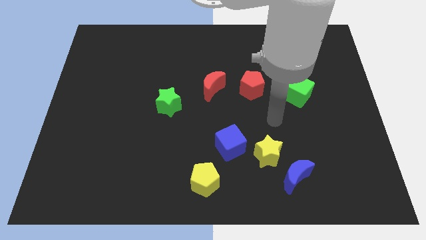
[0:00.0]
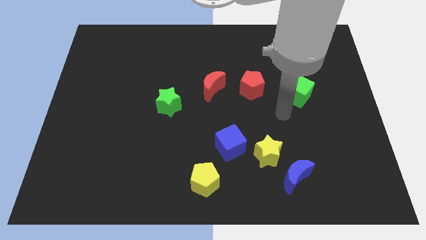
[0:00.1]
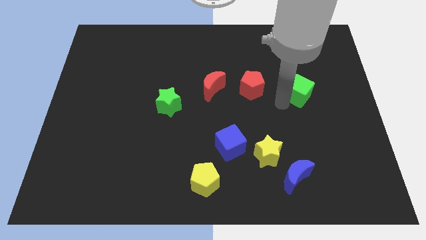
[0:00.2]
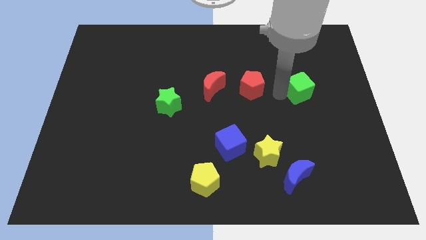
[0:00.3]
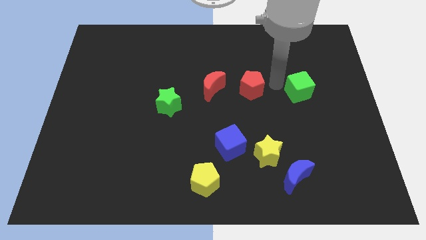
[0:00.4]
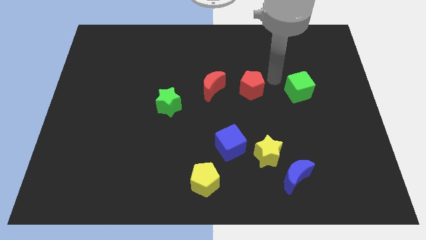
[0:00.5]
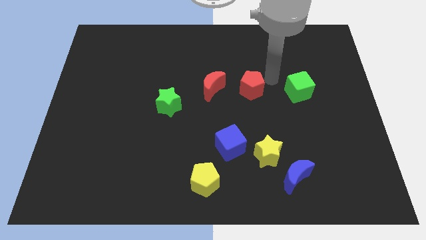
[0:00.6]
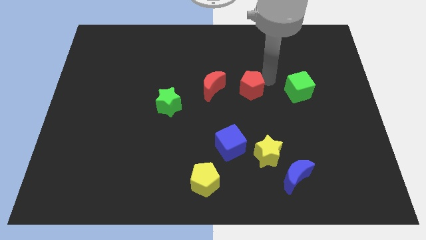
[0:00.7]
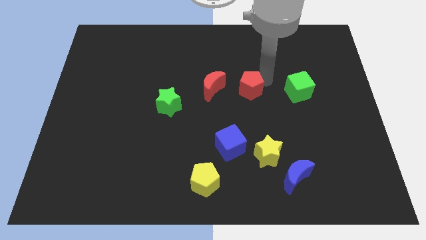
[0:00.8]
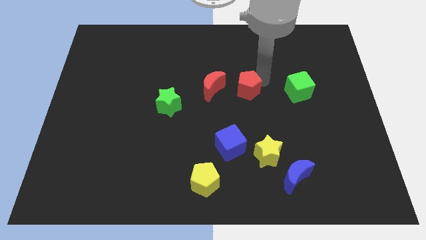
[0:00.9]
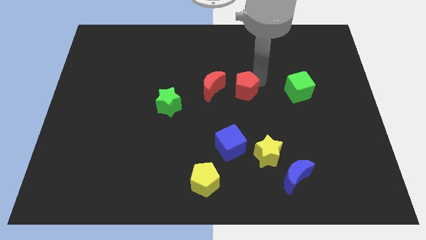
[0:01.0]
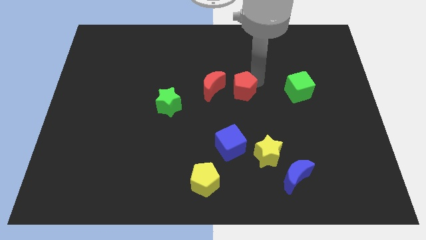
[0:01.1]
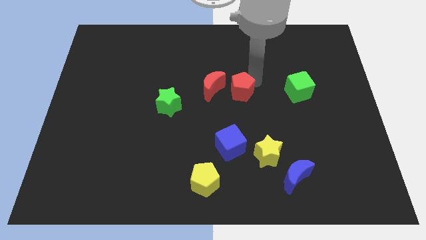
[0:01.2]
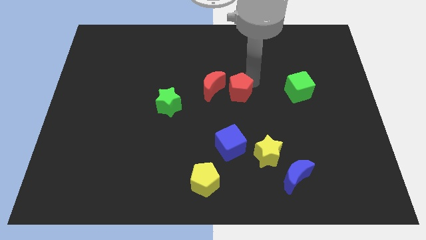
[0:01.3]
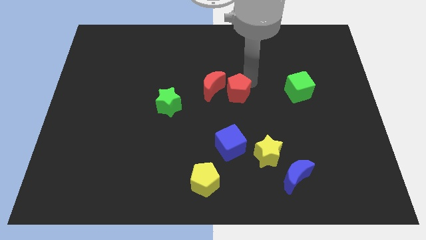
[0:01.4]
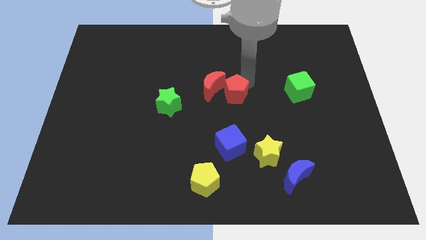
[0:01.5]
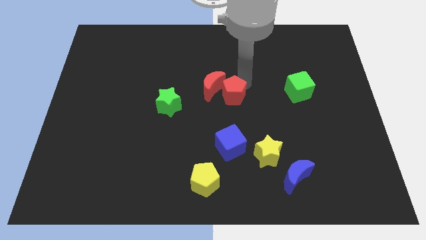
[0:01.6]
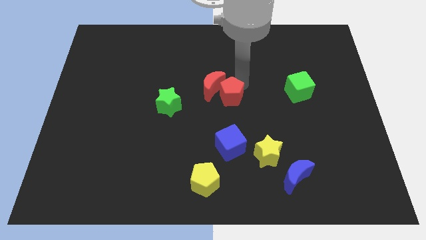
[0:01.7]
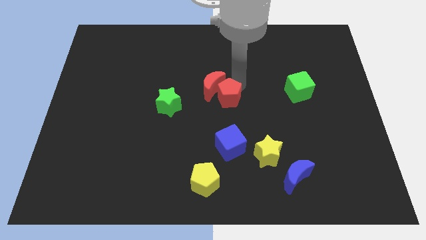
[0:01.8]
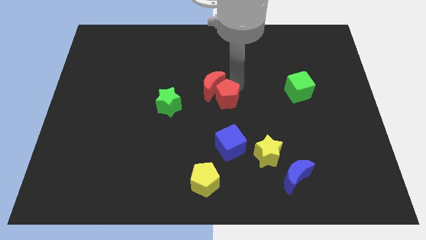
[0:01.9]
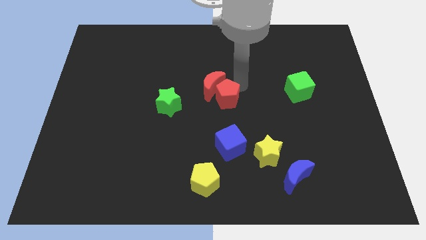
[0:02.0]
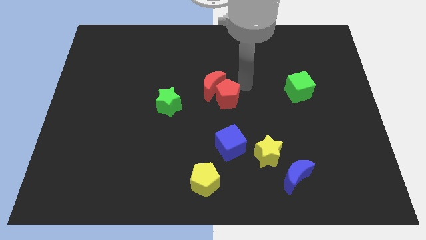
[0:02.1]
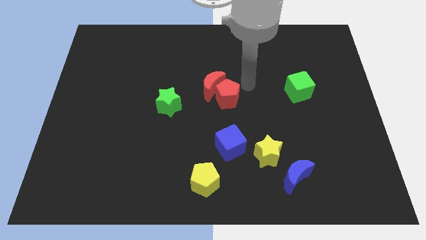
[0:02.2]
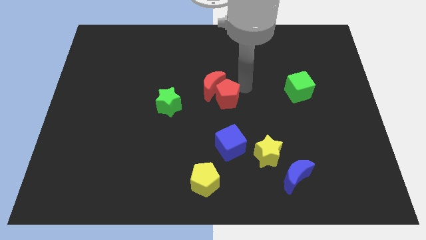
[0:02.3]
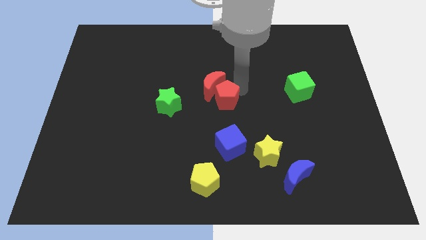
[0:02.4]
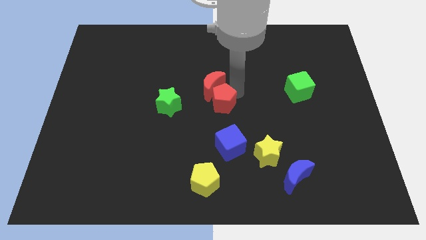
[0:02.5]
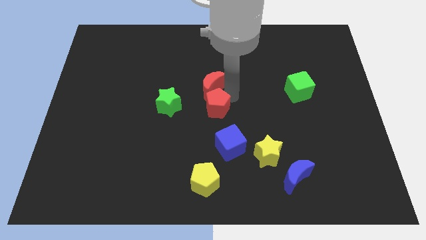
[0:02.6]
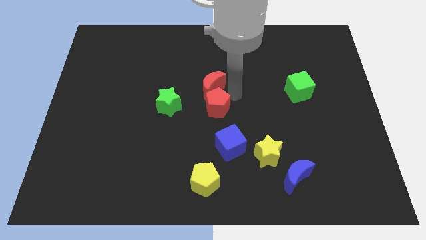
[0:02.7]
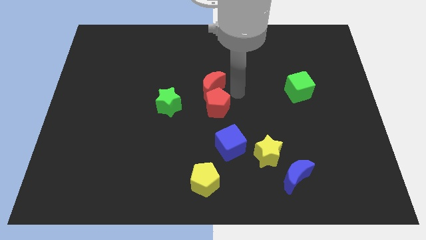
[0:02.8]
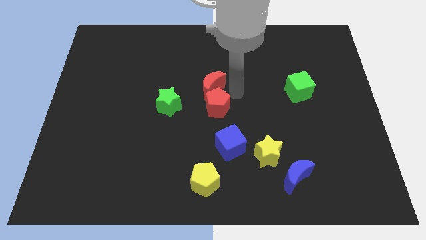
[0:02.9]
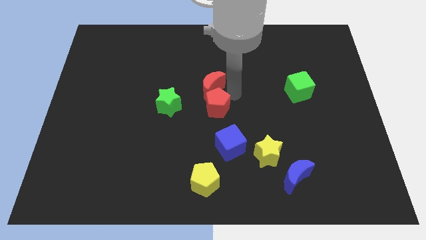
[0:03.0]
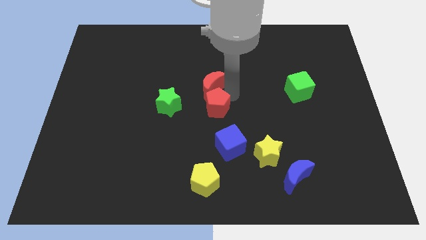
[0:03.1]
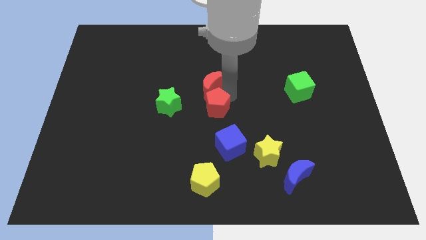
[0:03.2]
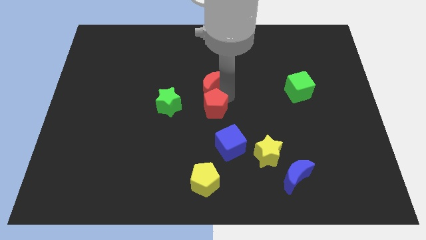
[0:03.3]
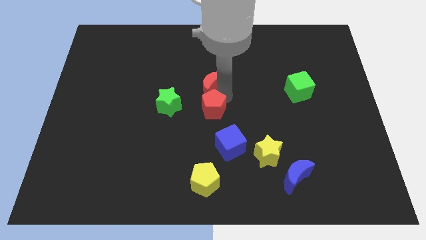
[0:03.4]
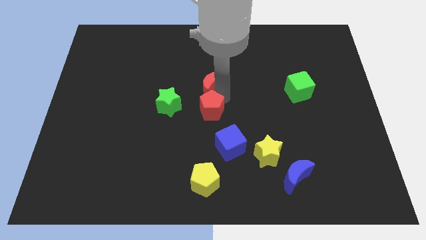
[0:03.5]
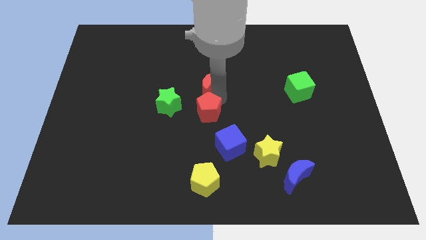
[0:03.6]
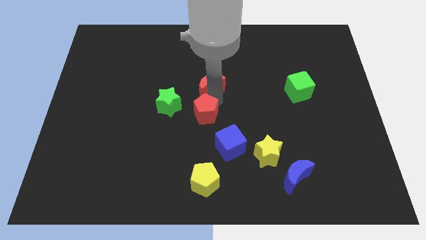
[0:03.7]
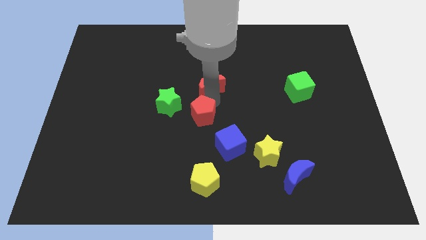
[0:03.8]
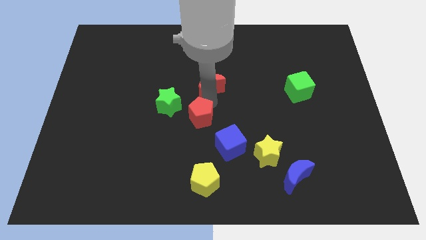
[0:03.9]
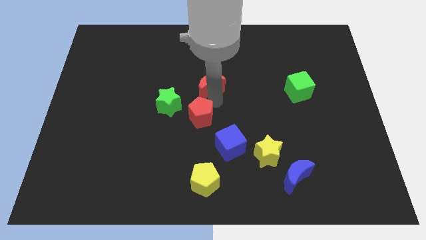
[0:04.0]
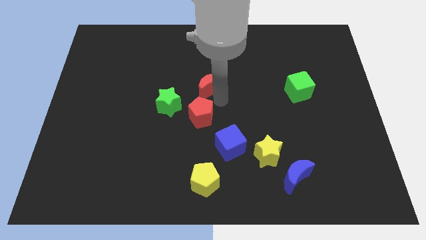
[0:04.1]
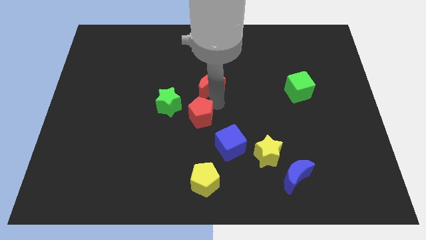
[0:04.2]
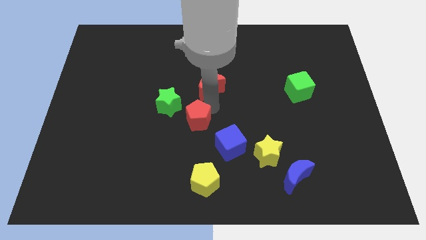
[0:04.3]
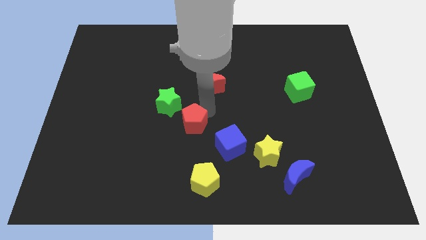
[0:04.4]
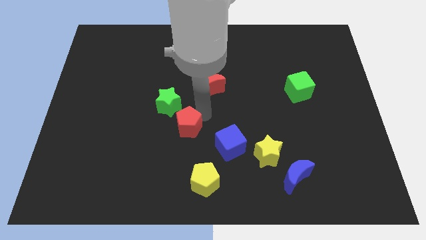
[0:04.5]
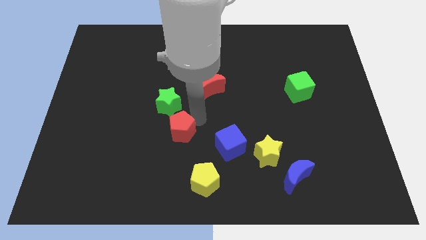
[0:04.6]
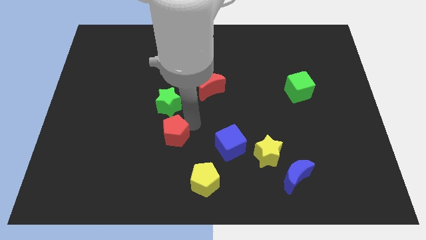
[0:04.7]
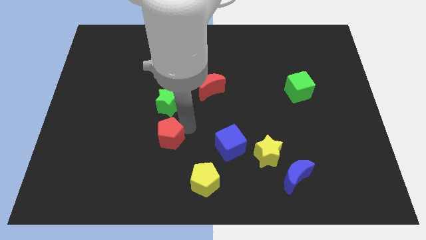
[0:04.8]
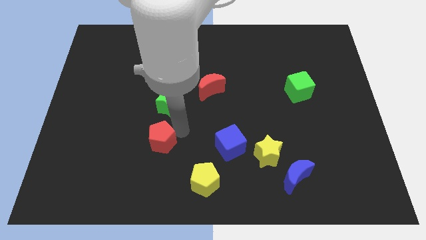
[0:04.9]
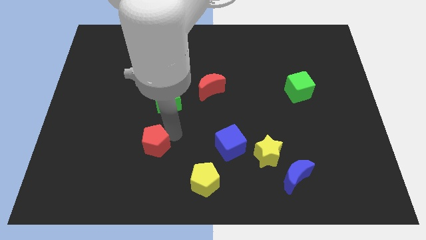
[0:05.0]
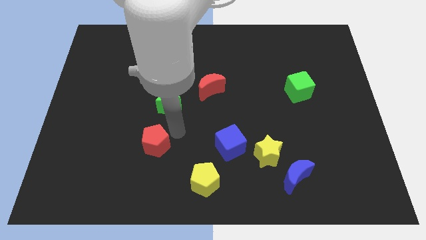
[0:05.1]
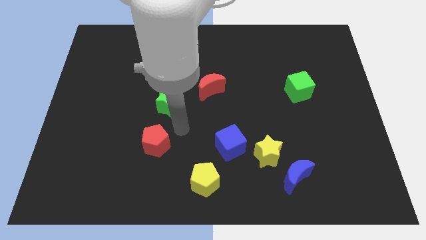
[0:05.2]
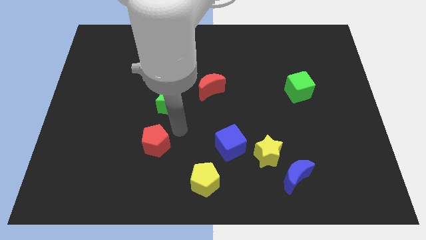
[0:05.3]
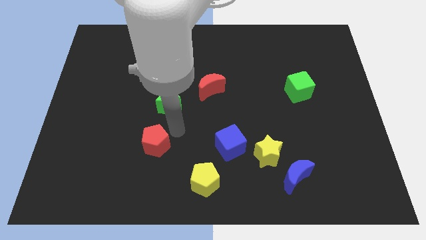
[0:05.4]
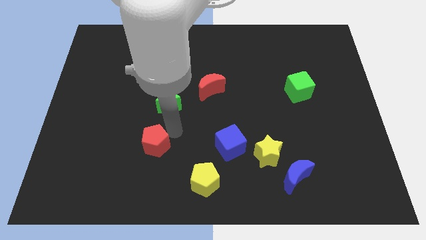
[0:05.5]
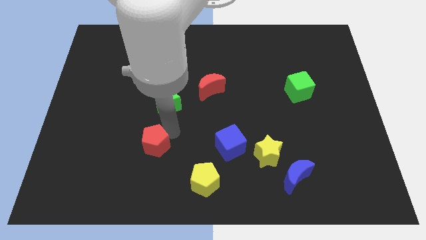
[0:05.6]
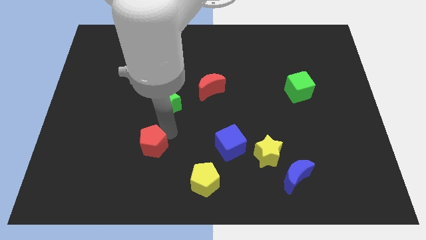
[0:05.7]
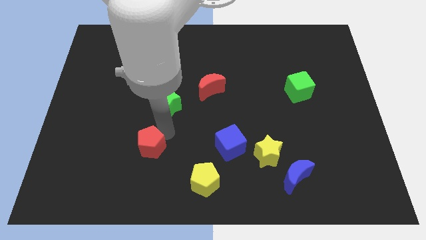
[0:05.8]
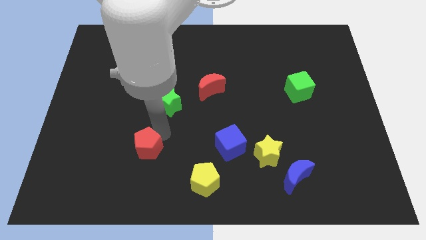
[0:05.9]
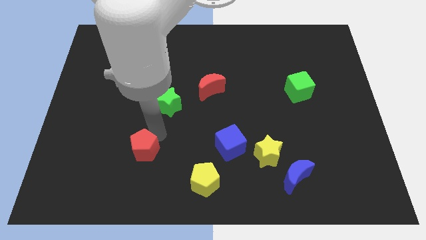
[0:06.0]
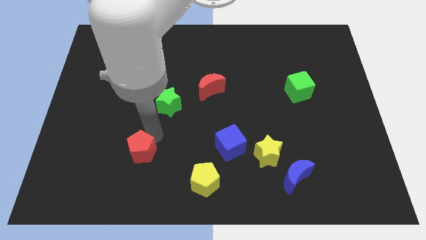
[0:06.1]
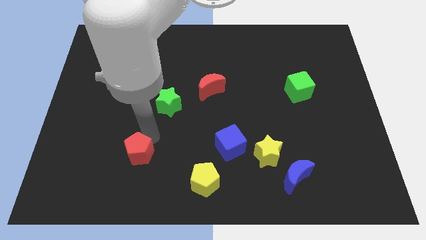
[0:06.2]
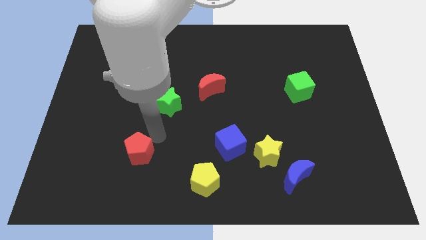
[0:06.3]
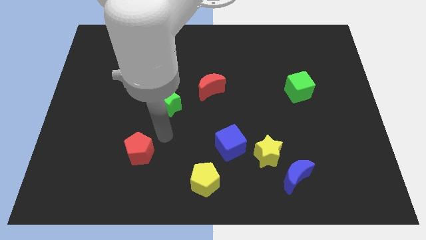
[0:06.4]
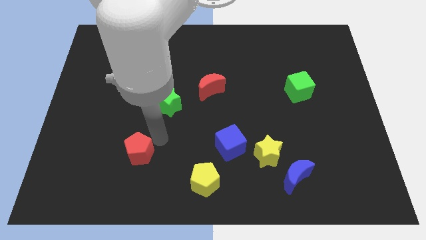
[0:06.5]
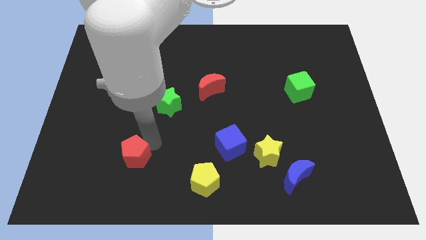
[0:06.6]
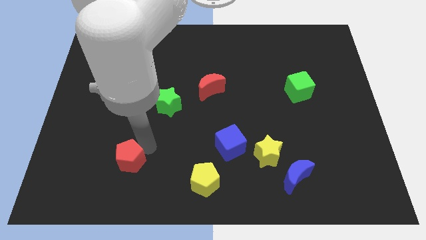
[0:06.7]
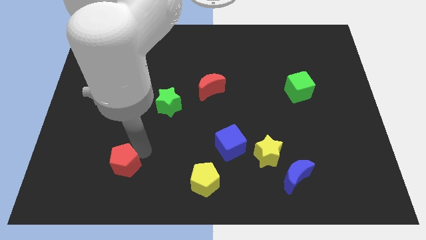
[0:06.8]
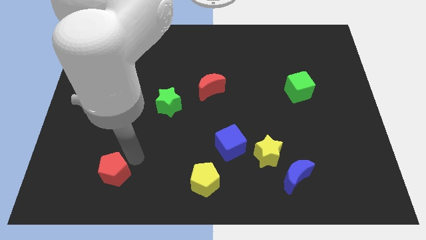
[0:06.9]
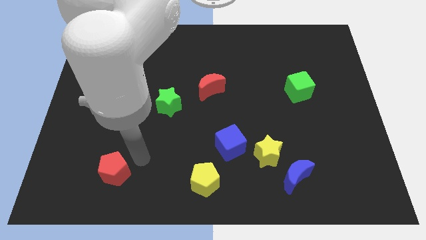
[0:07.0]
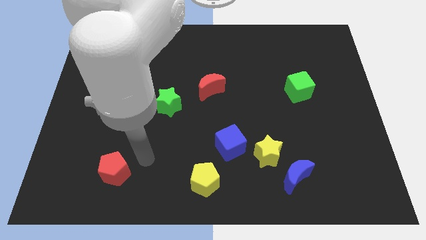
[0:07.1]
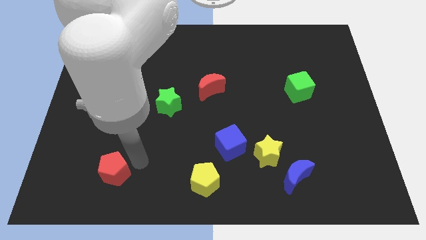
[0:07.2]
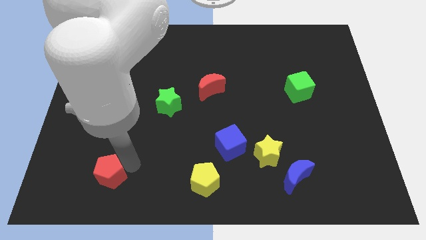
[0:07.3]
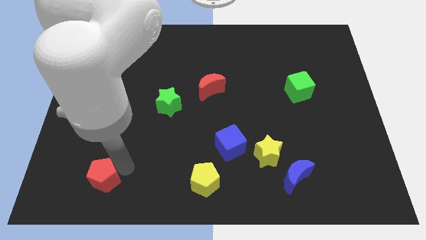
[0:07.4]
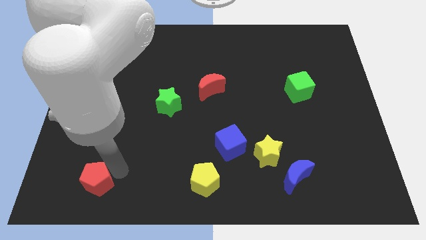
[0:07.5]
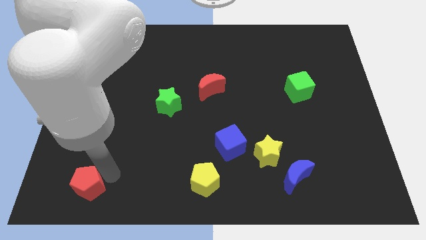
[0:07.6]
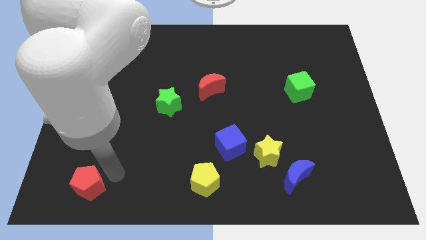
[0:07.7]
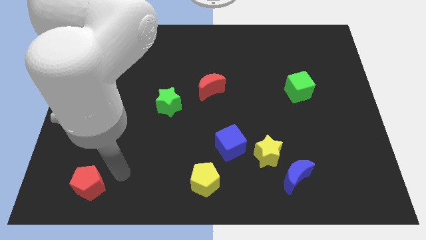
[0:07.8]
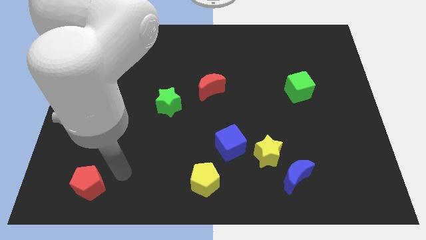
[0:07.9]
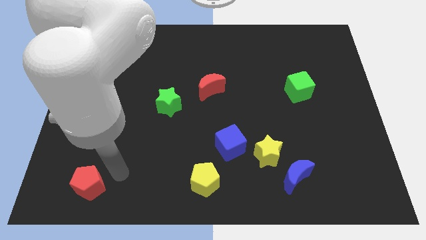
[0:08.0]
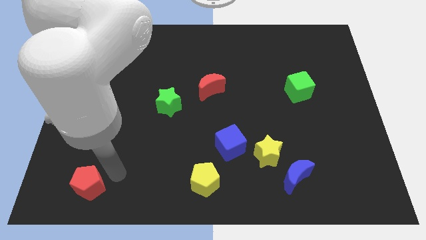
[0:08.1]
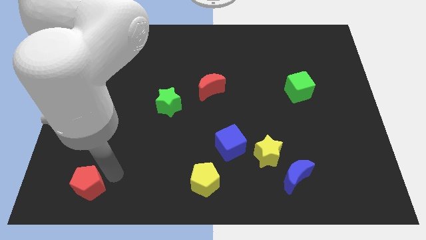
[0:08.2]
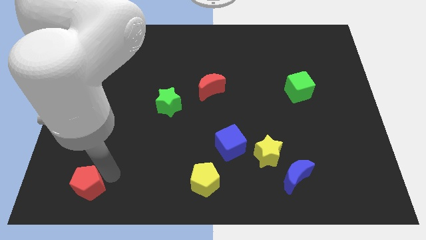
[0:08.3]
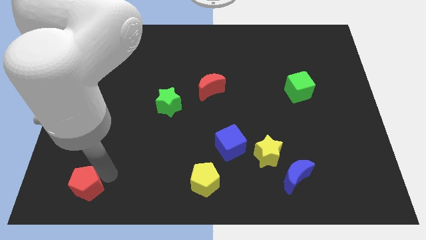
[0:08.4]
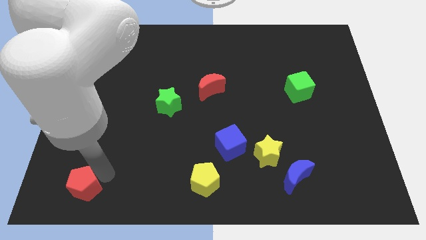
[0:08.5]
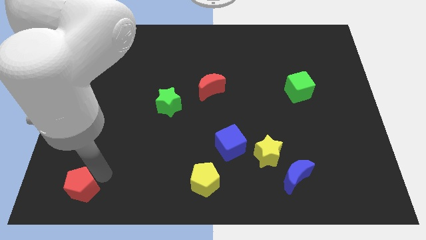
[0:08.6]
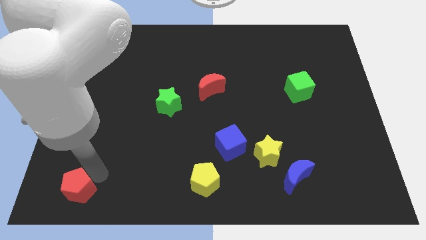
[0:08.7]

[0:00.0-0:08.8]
push the red pentagon to the bottom left of the board
